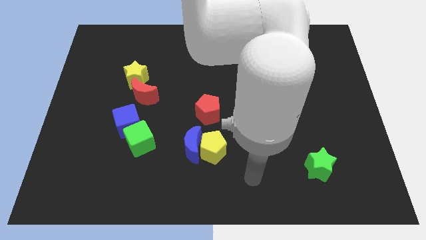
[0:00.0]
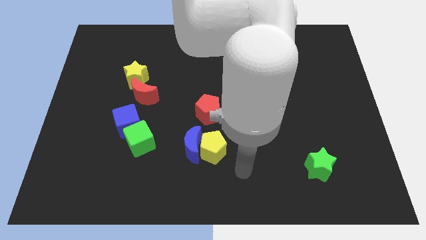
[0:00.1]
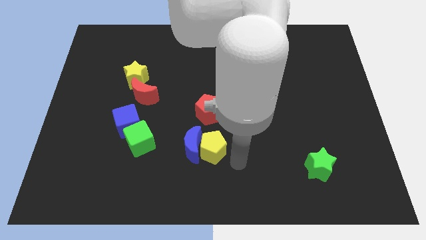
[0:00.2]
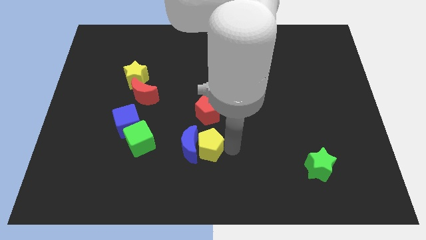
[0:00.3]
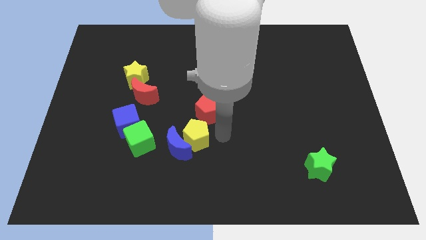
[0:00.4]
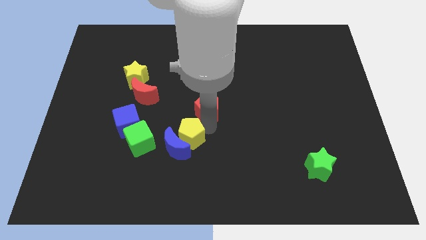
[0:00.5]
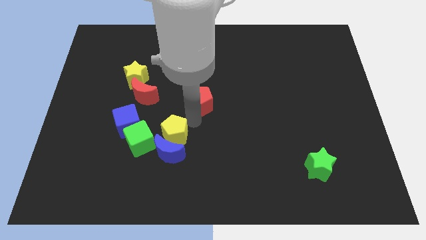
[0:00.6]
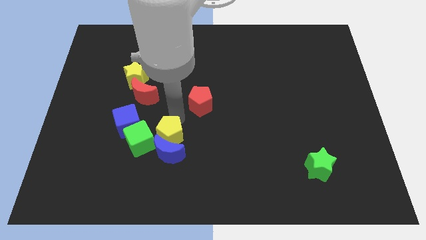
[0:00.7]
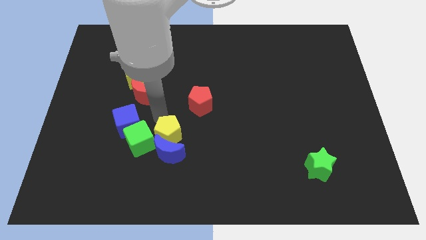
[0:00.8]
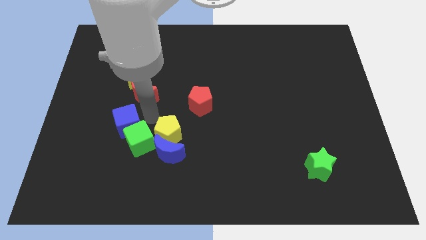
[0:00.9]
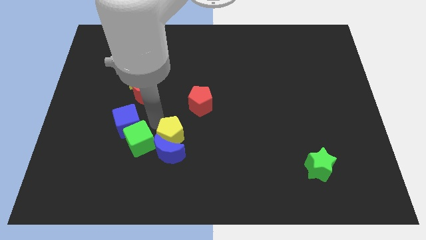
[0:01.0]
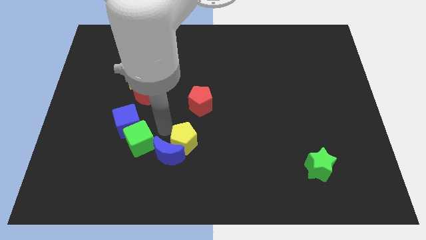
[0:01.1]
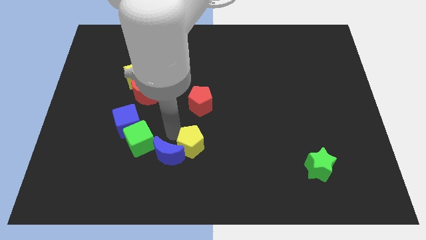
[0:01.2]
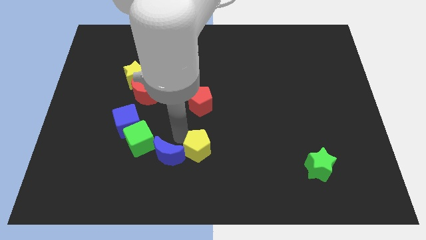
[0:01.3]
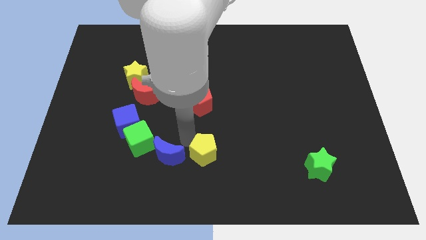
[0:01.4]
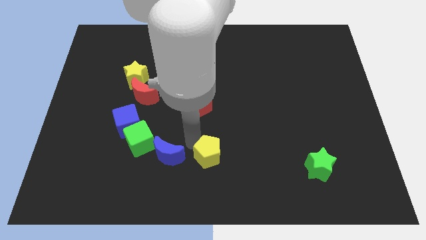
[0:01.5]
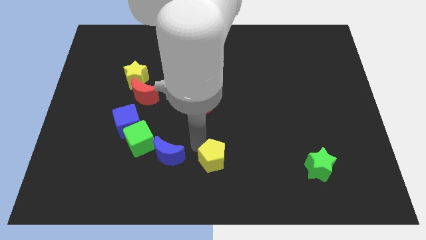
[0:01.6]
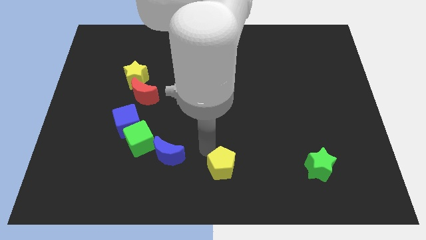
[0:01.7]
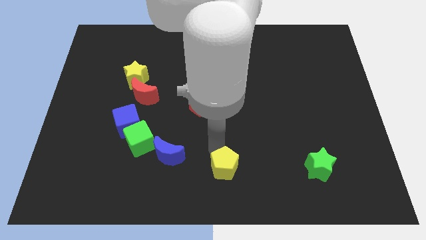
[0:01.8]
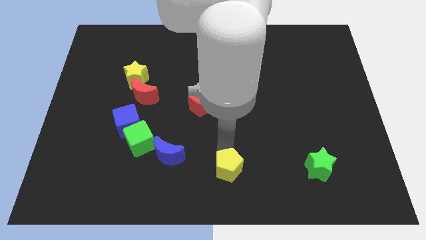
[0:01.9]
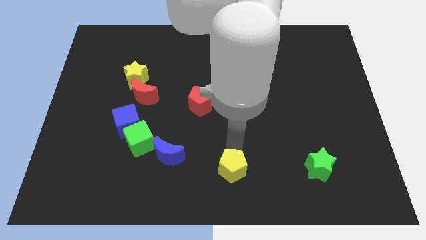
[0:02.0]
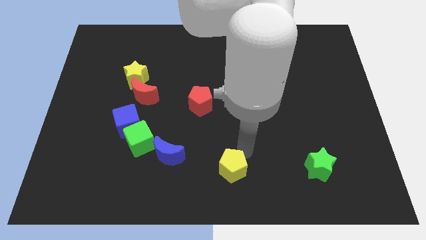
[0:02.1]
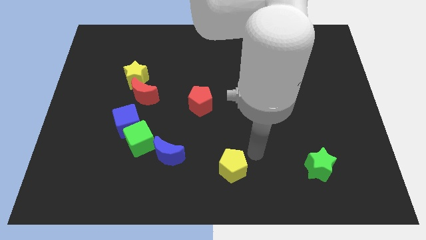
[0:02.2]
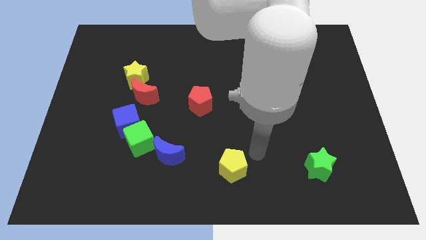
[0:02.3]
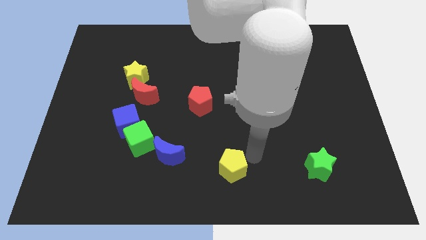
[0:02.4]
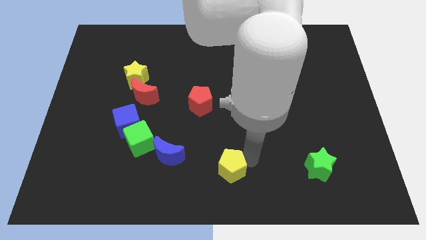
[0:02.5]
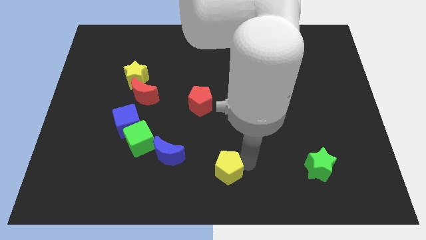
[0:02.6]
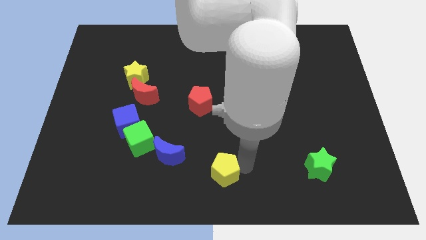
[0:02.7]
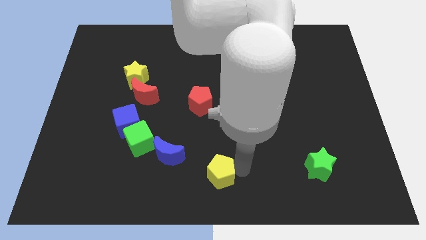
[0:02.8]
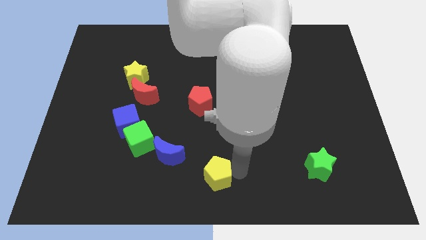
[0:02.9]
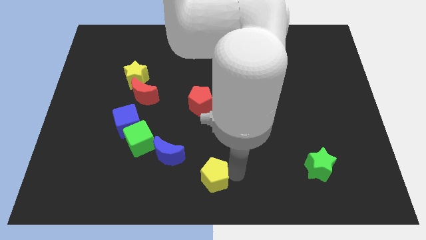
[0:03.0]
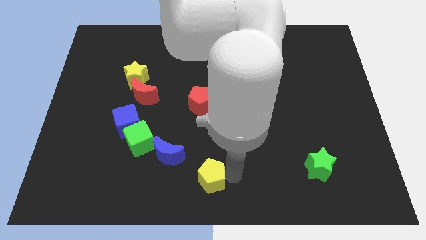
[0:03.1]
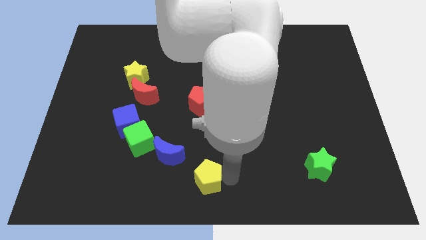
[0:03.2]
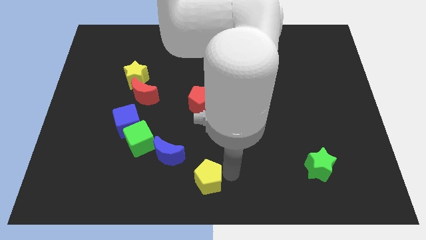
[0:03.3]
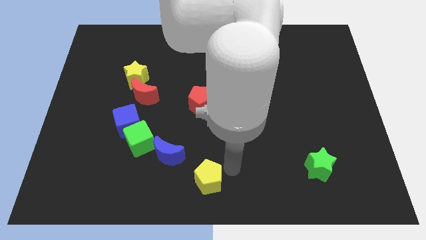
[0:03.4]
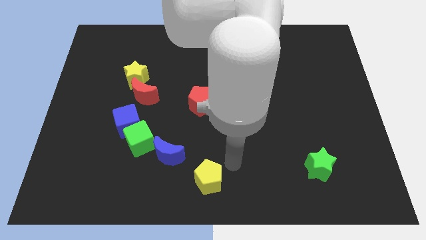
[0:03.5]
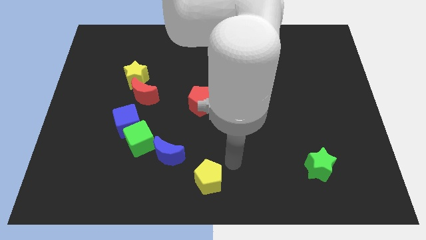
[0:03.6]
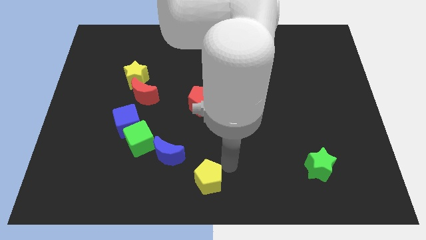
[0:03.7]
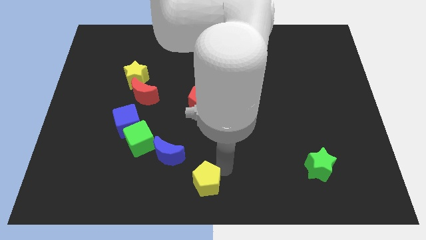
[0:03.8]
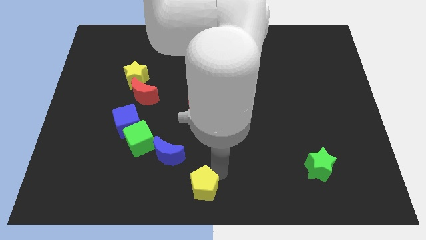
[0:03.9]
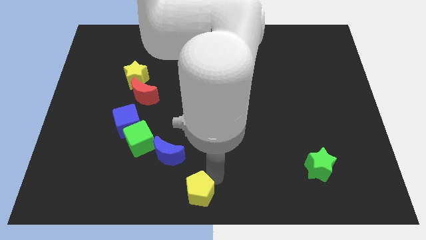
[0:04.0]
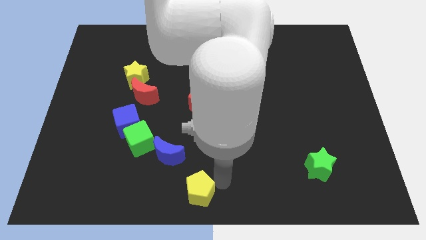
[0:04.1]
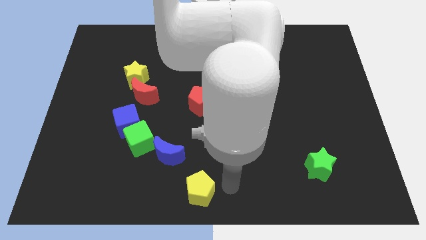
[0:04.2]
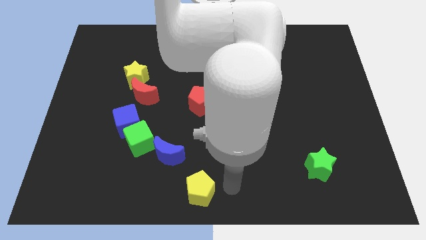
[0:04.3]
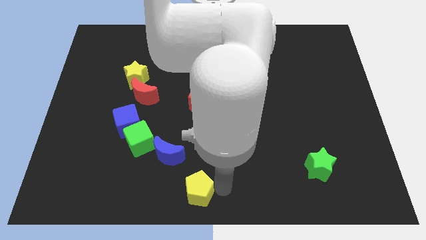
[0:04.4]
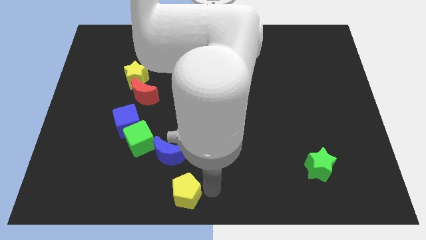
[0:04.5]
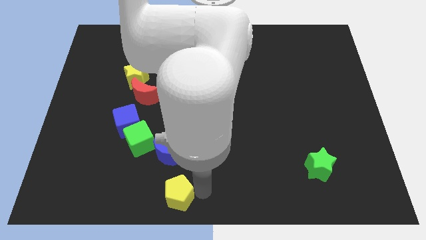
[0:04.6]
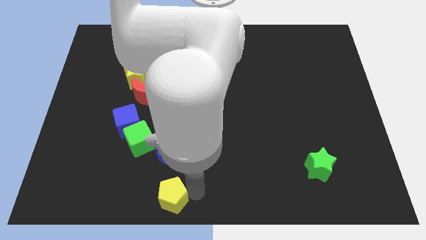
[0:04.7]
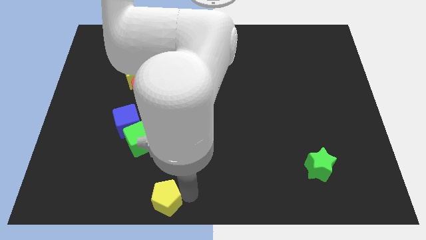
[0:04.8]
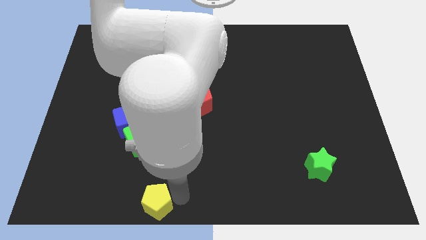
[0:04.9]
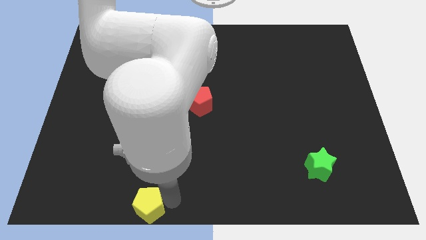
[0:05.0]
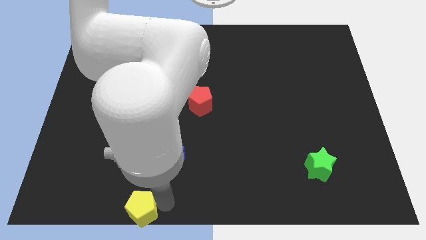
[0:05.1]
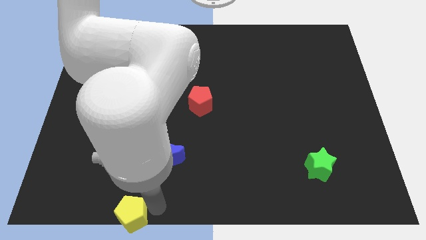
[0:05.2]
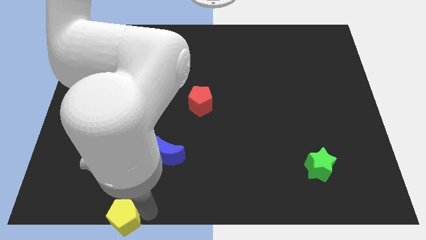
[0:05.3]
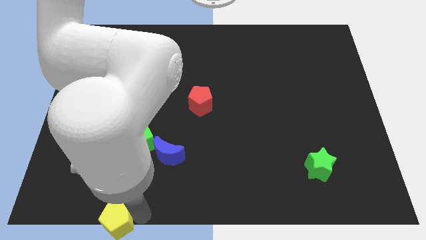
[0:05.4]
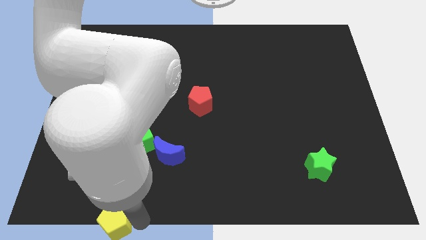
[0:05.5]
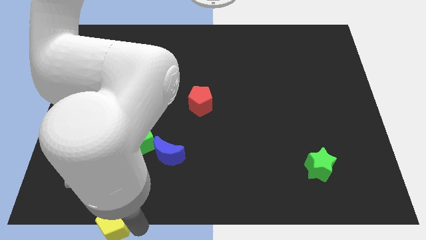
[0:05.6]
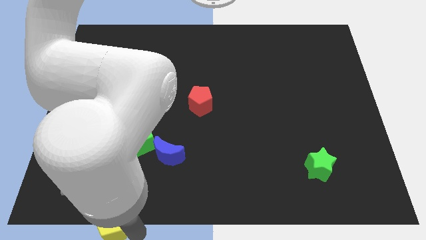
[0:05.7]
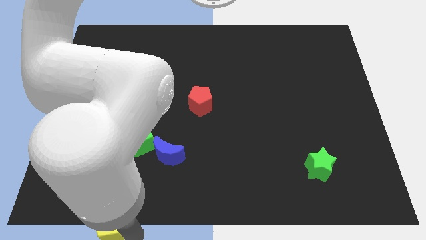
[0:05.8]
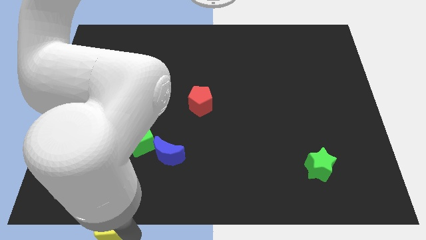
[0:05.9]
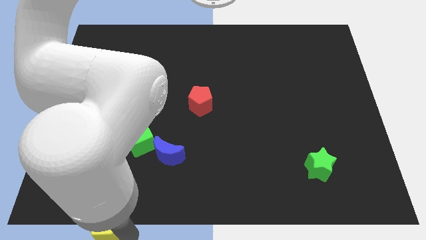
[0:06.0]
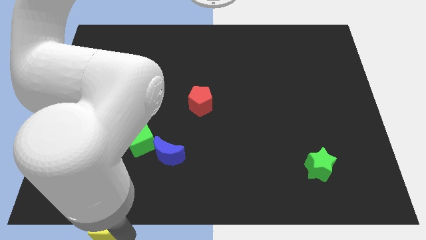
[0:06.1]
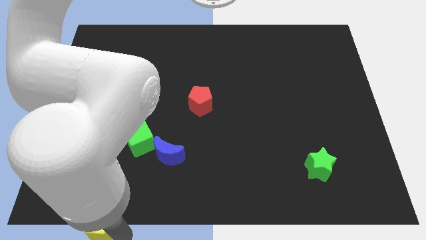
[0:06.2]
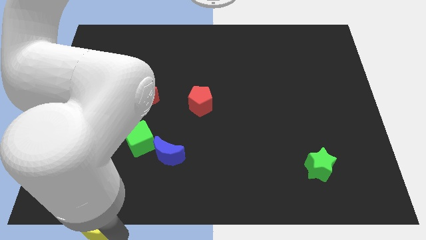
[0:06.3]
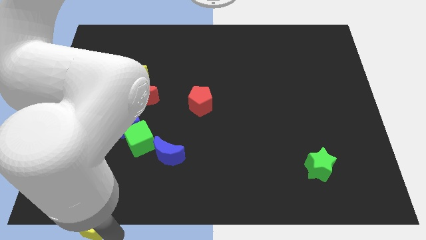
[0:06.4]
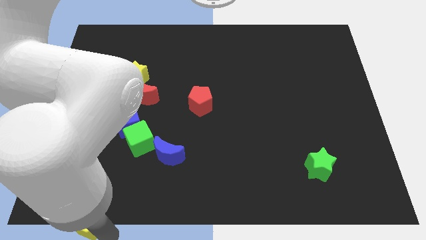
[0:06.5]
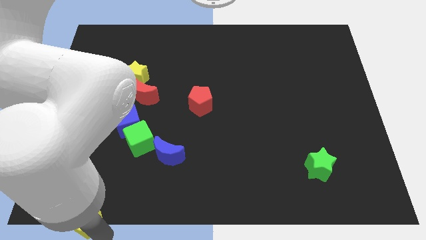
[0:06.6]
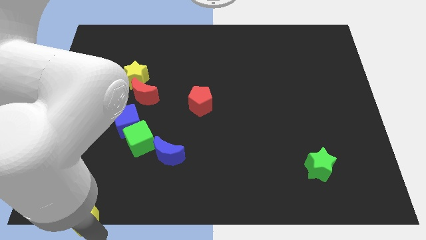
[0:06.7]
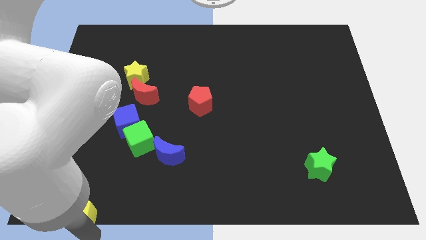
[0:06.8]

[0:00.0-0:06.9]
slide the yellow pentagon to the bottom left corner

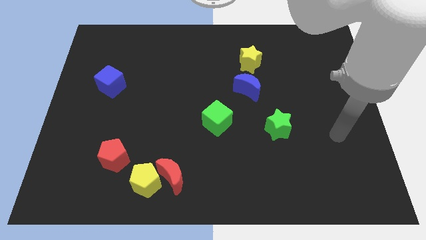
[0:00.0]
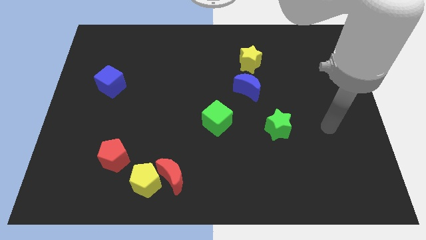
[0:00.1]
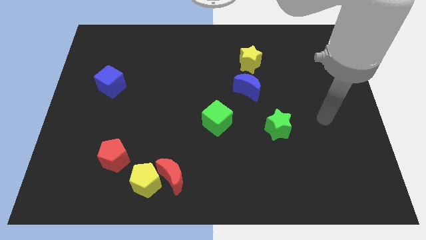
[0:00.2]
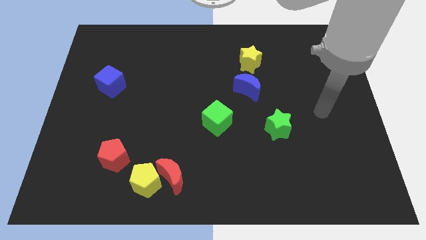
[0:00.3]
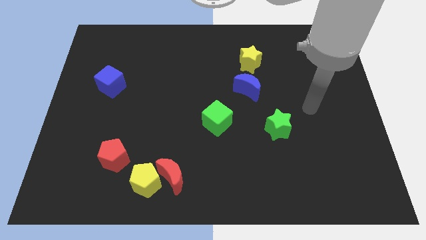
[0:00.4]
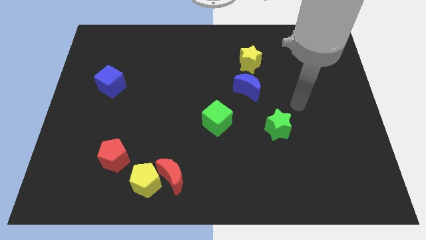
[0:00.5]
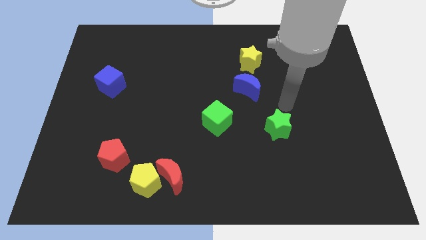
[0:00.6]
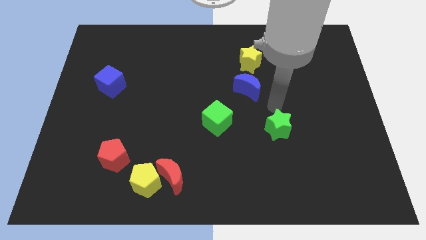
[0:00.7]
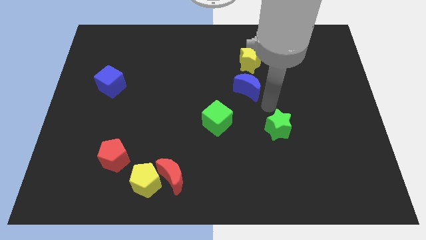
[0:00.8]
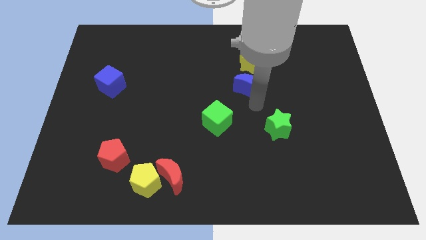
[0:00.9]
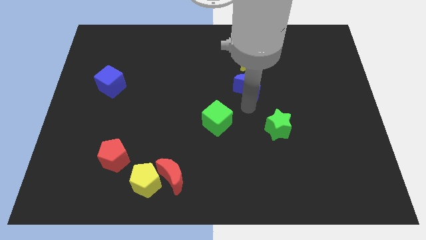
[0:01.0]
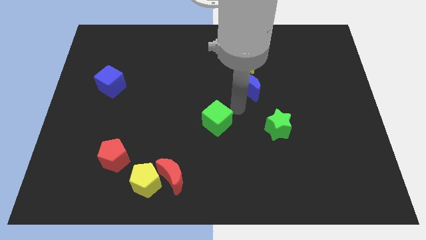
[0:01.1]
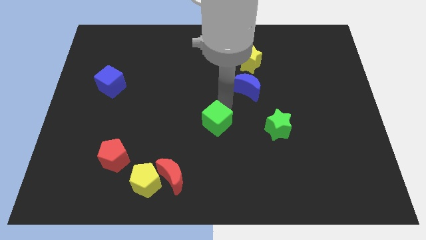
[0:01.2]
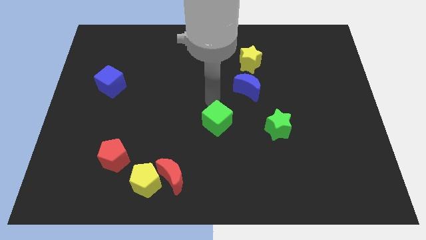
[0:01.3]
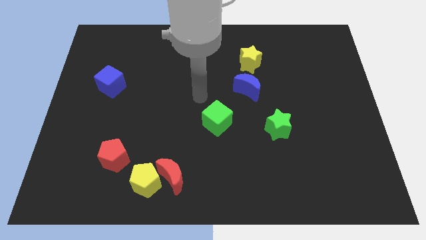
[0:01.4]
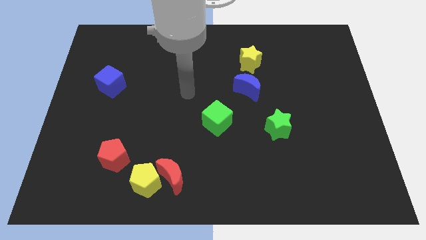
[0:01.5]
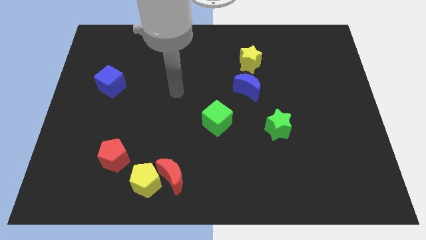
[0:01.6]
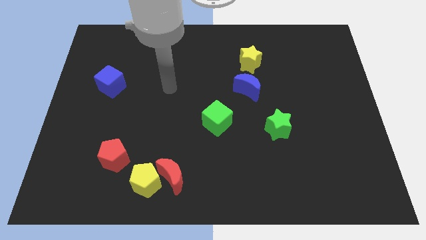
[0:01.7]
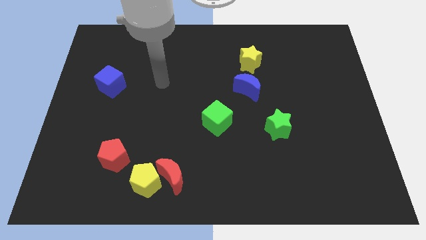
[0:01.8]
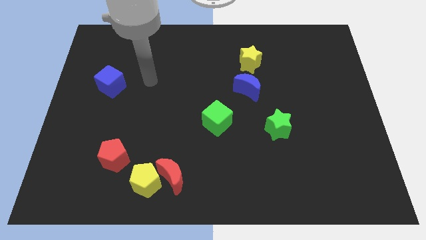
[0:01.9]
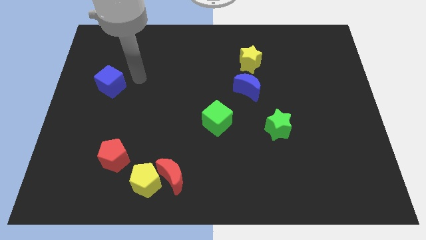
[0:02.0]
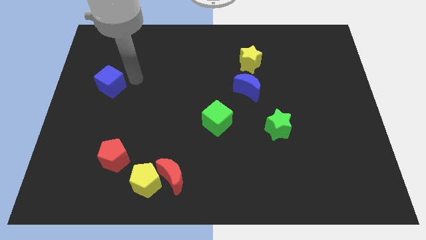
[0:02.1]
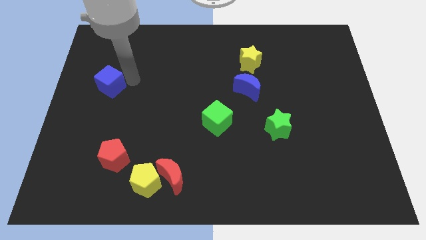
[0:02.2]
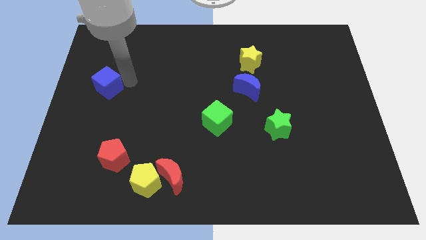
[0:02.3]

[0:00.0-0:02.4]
slide the blue cube to the left side of the board
